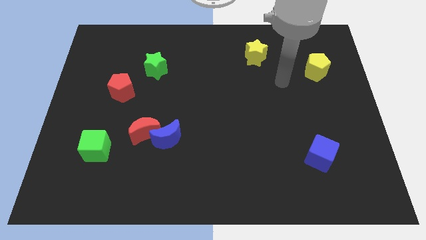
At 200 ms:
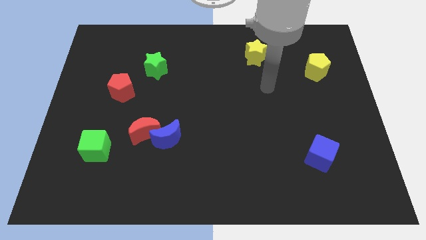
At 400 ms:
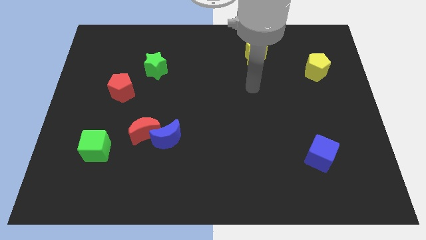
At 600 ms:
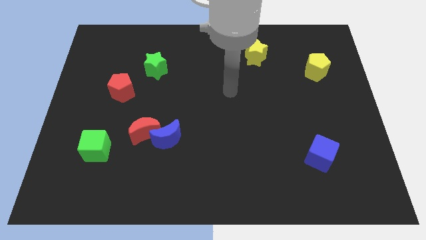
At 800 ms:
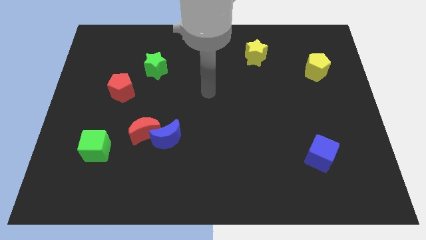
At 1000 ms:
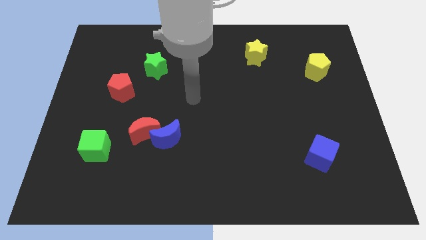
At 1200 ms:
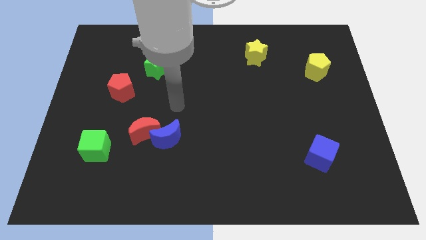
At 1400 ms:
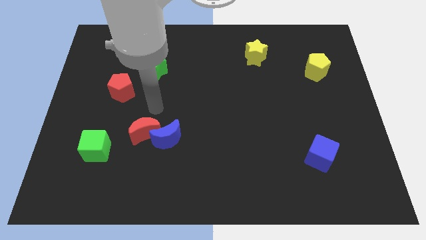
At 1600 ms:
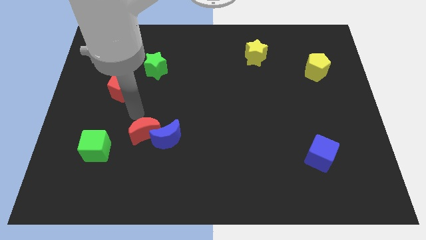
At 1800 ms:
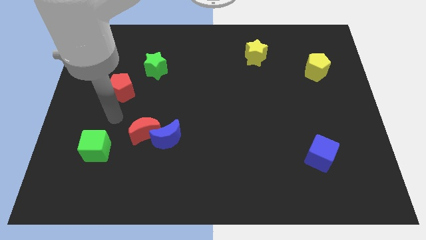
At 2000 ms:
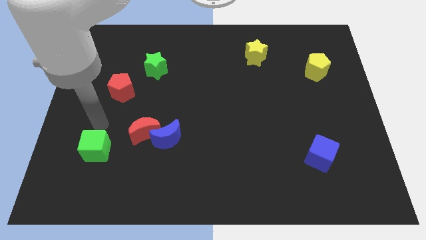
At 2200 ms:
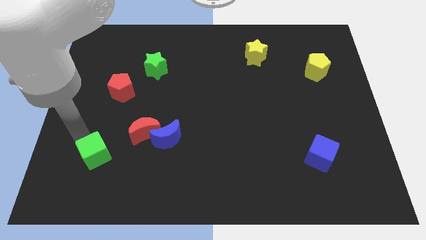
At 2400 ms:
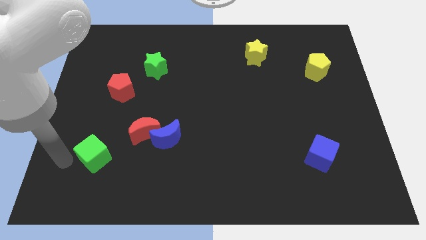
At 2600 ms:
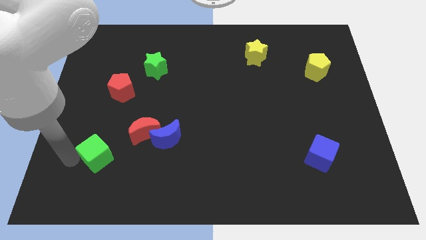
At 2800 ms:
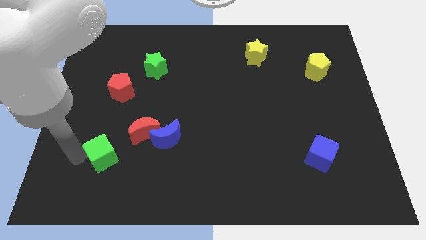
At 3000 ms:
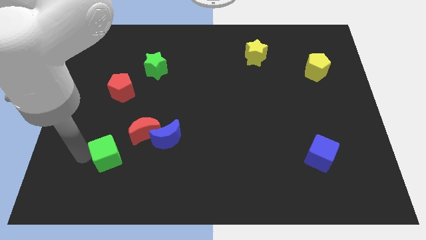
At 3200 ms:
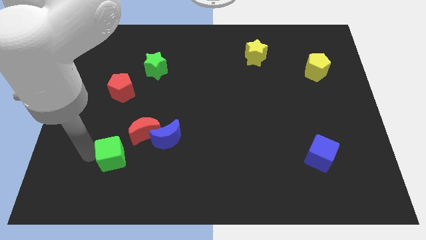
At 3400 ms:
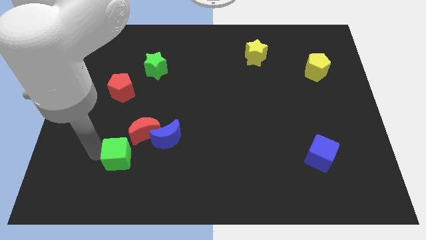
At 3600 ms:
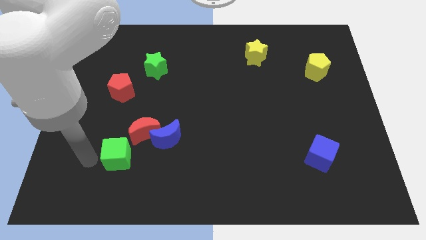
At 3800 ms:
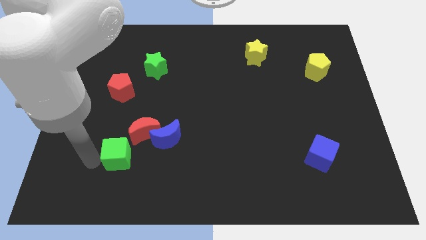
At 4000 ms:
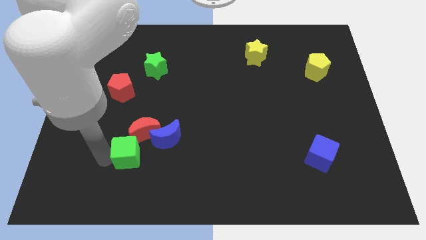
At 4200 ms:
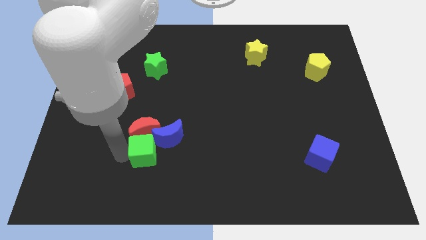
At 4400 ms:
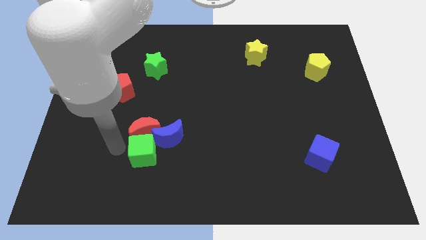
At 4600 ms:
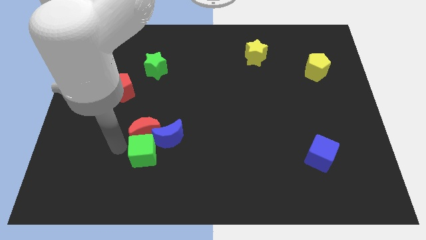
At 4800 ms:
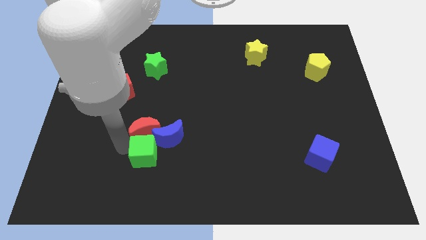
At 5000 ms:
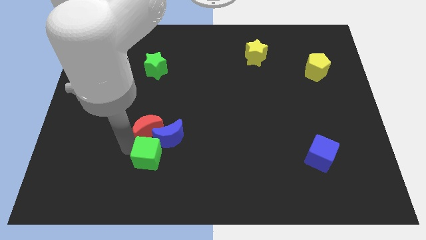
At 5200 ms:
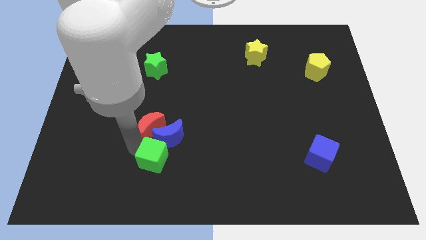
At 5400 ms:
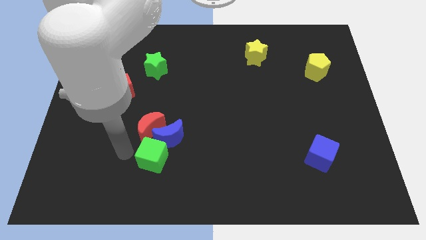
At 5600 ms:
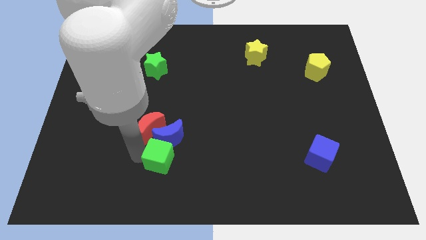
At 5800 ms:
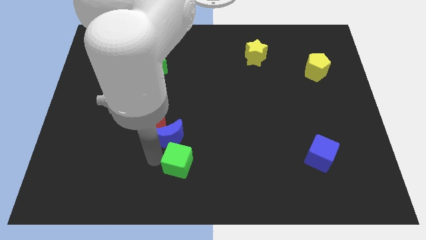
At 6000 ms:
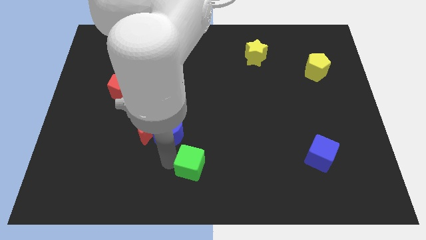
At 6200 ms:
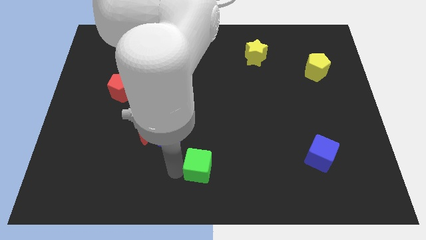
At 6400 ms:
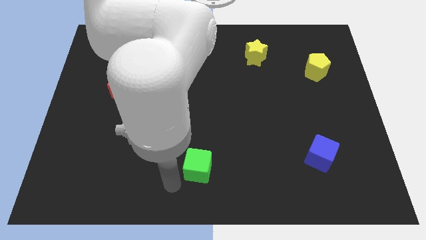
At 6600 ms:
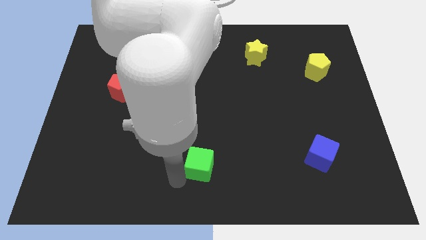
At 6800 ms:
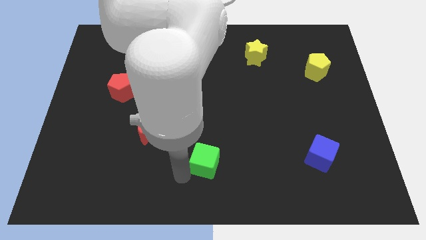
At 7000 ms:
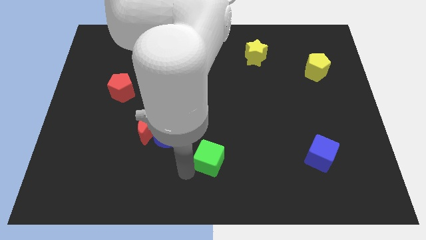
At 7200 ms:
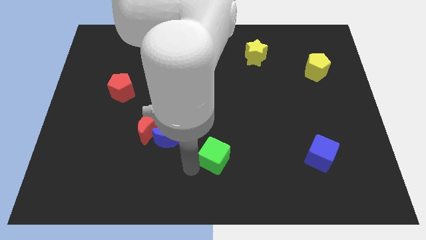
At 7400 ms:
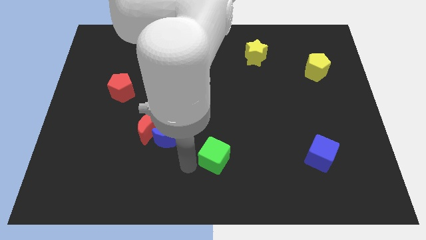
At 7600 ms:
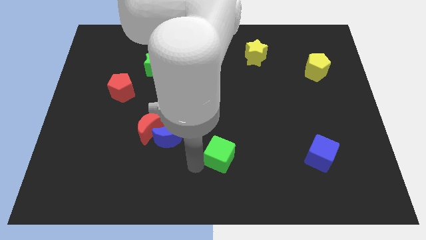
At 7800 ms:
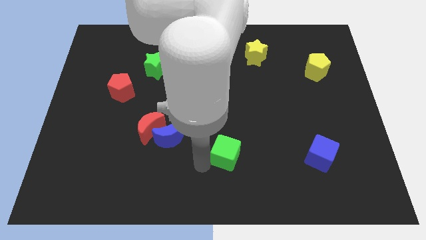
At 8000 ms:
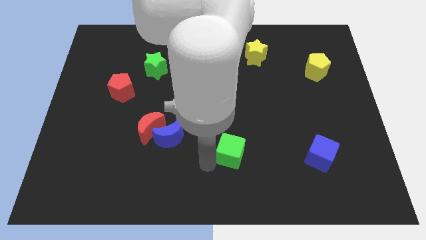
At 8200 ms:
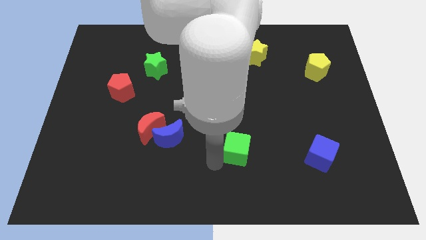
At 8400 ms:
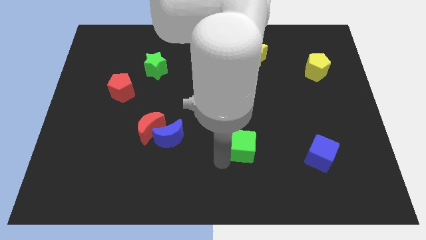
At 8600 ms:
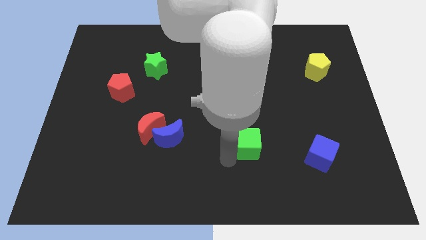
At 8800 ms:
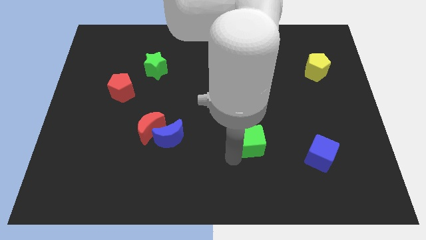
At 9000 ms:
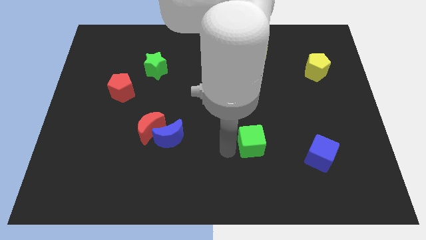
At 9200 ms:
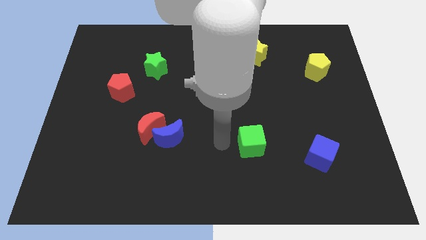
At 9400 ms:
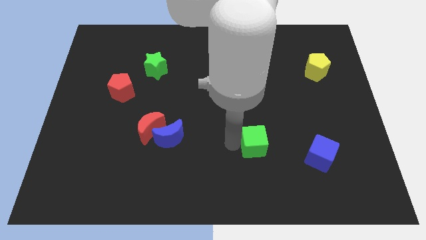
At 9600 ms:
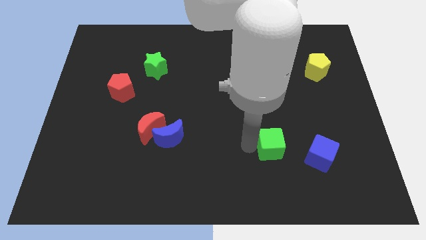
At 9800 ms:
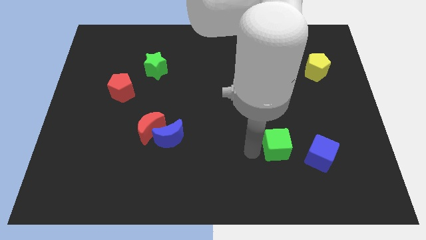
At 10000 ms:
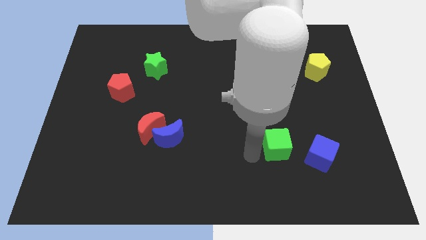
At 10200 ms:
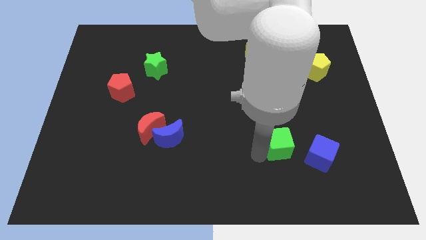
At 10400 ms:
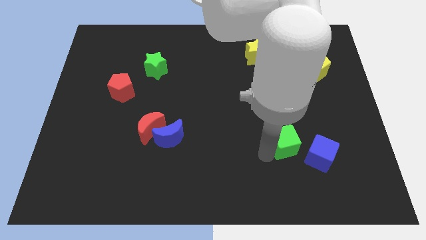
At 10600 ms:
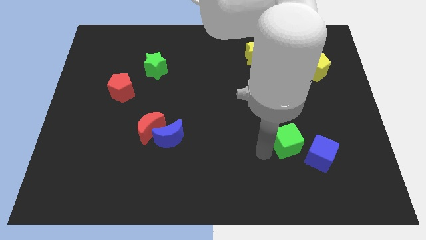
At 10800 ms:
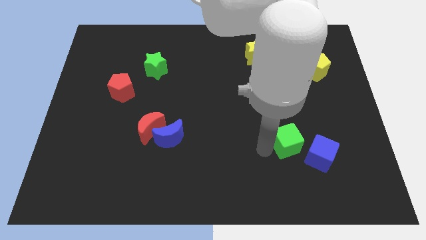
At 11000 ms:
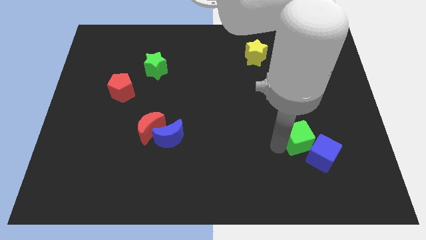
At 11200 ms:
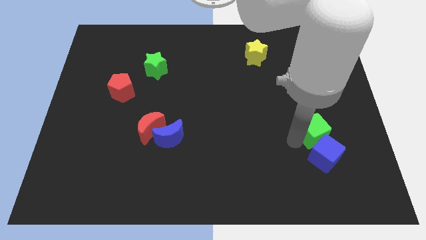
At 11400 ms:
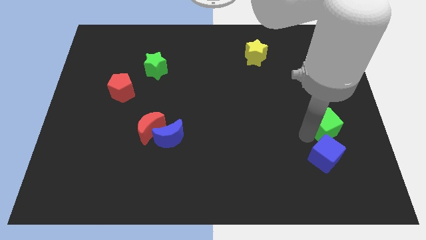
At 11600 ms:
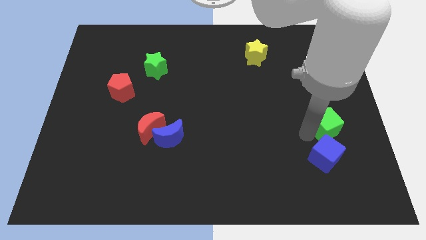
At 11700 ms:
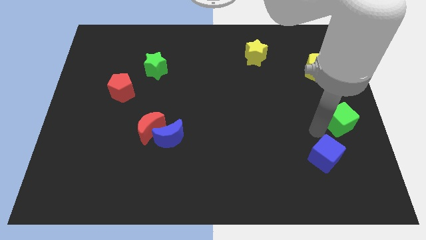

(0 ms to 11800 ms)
move the green cube to the right side
